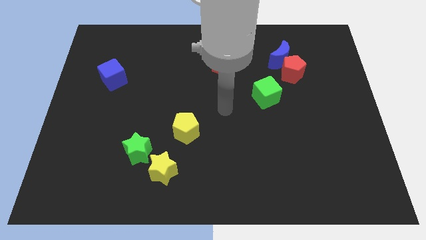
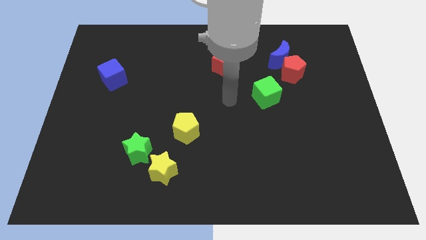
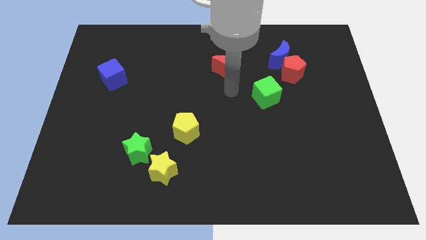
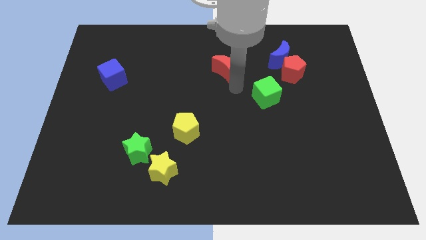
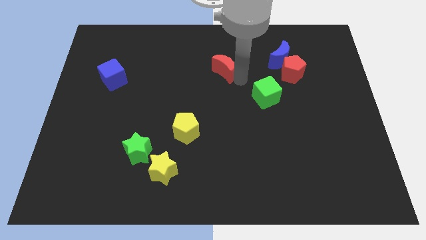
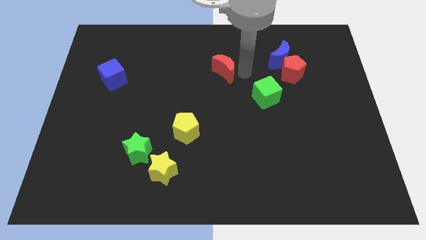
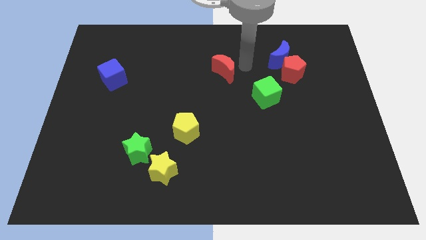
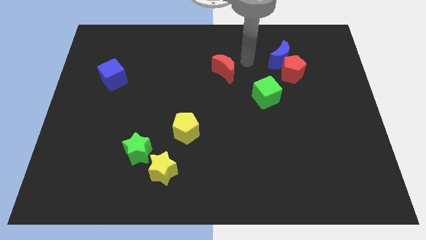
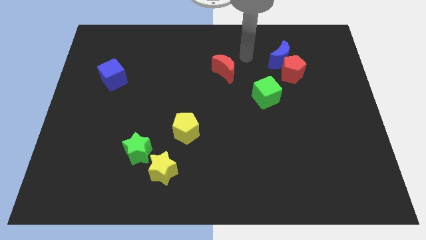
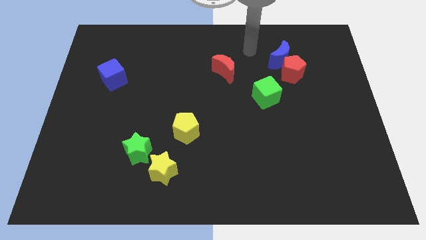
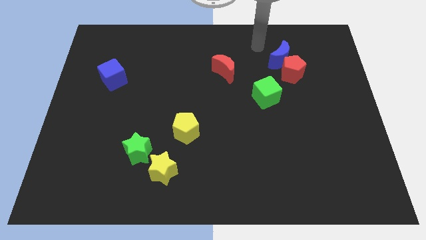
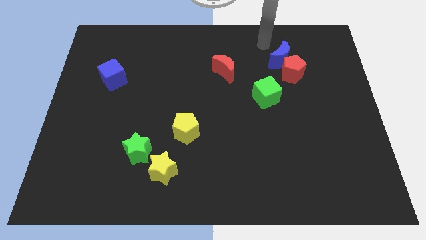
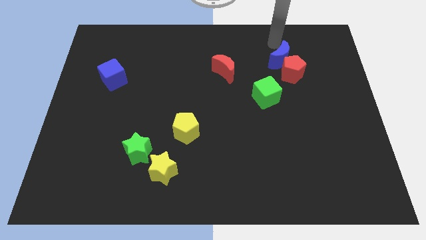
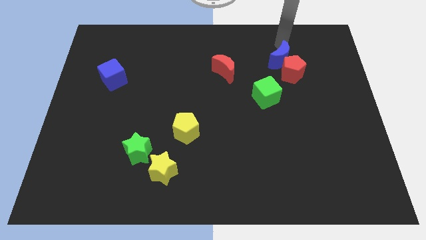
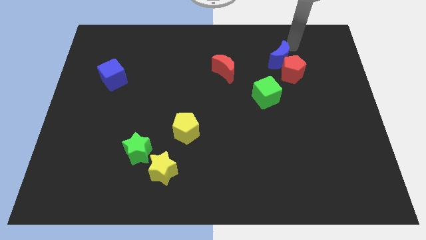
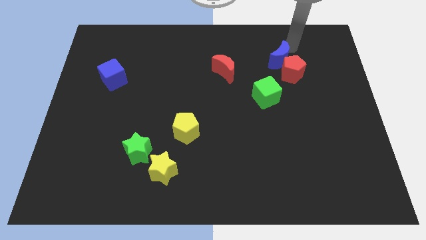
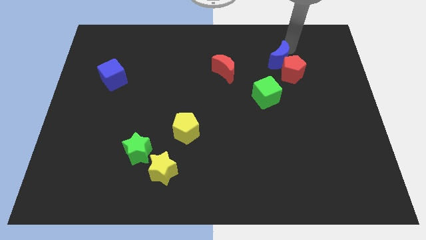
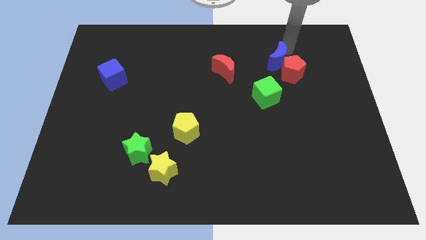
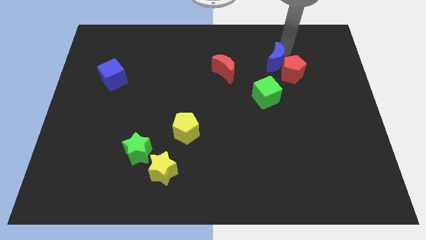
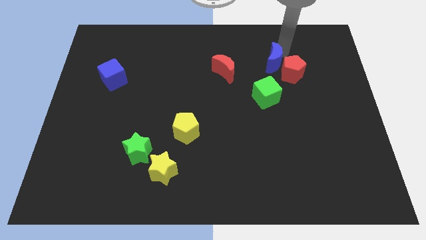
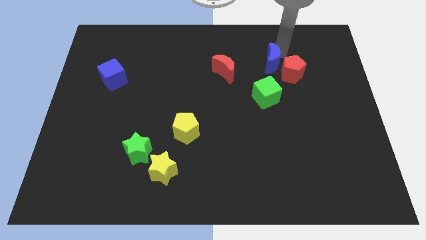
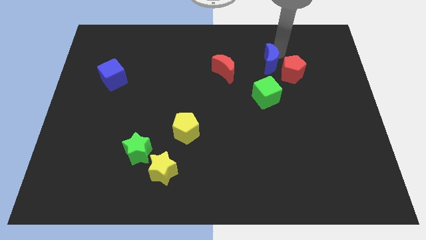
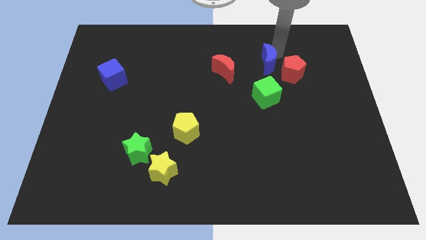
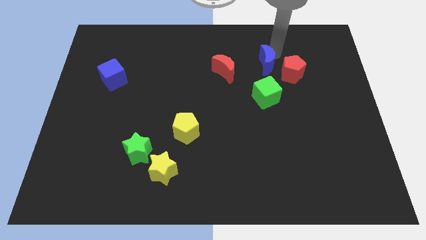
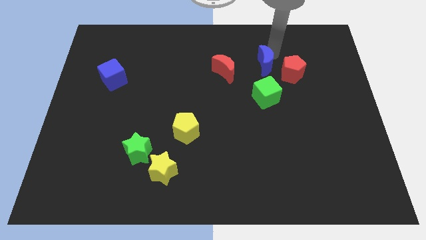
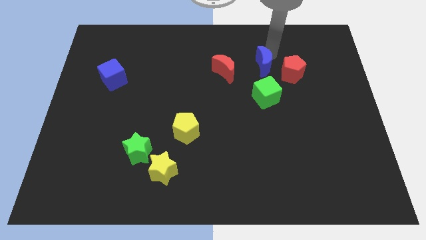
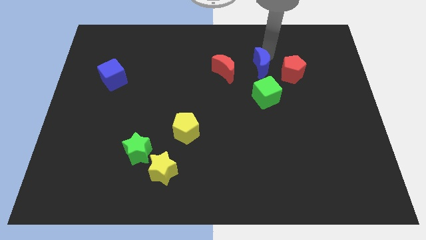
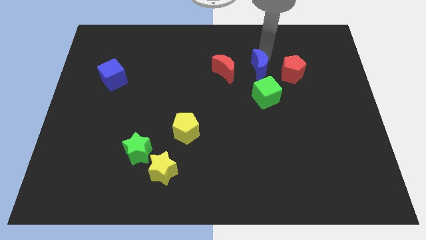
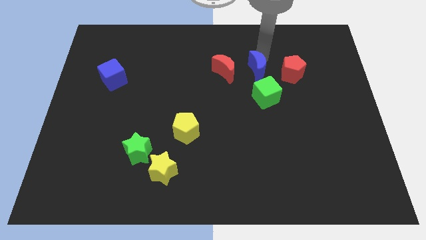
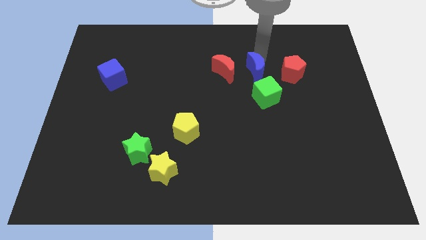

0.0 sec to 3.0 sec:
slightly move the blue moon diagonally down and left

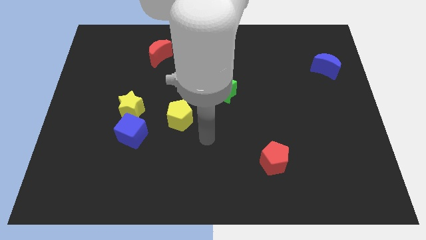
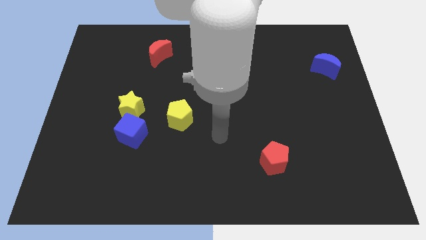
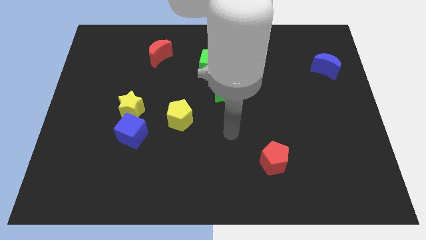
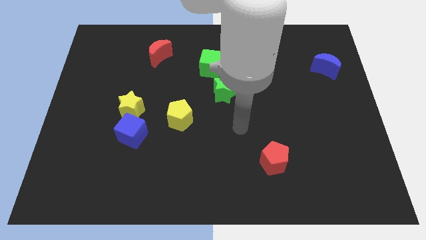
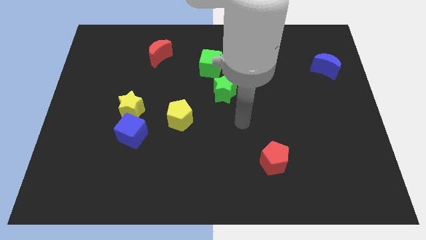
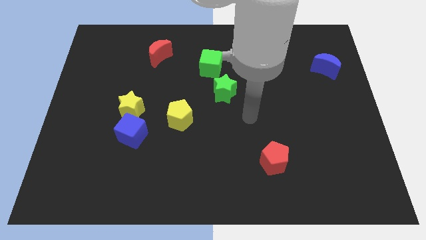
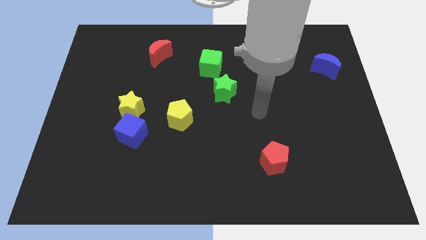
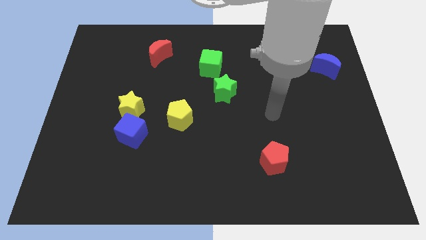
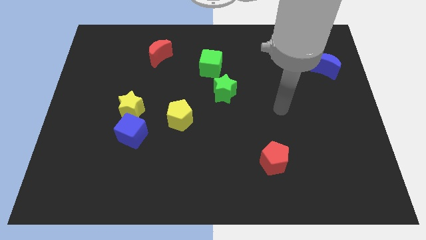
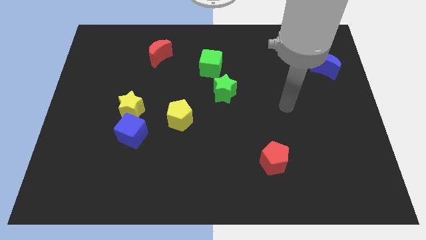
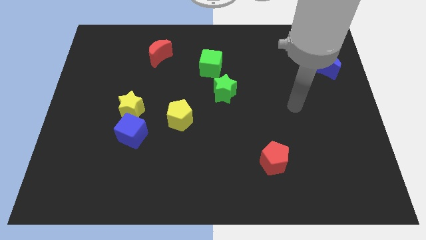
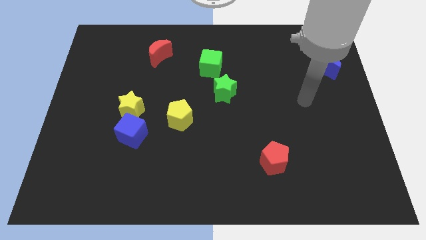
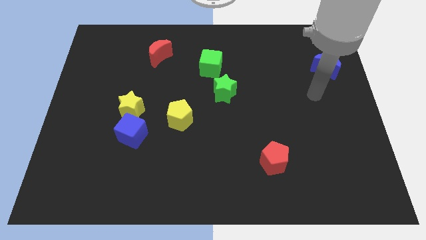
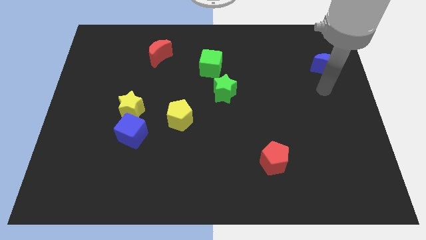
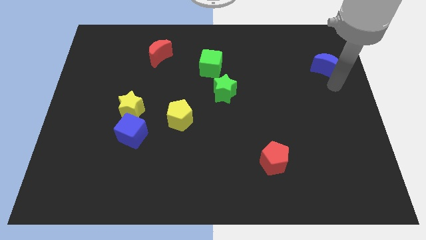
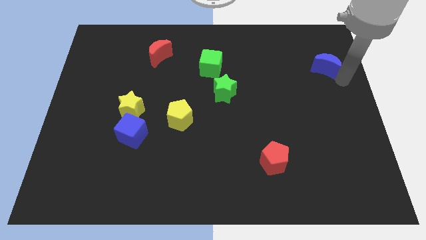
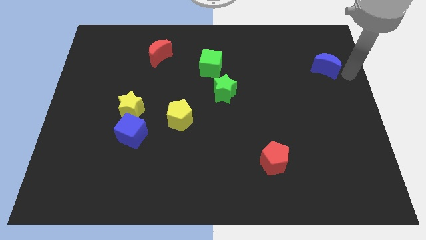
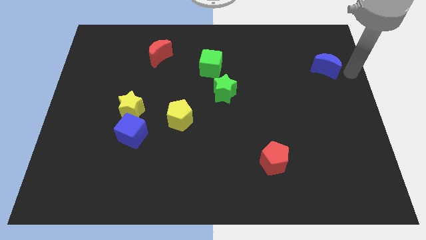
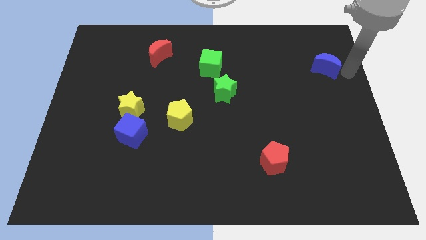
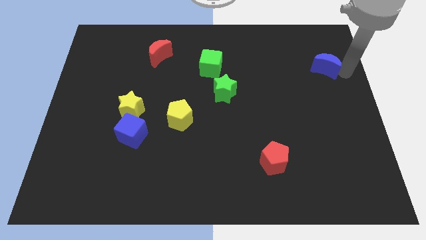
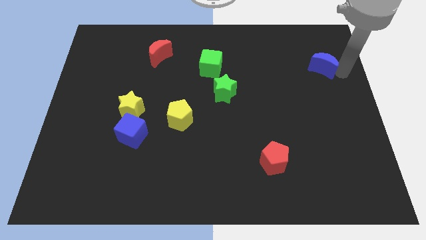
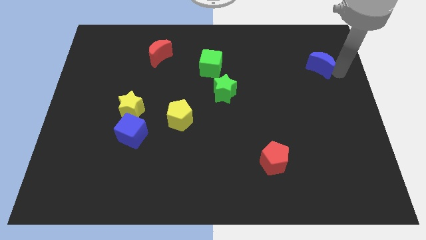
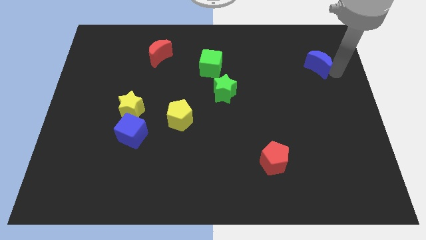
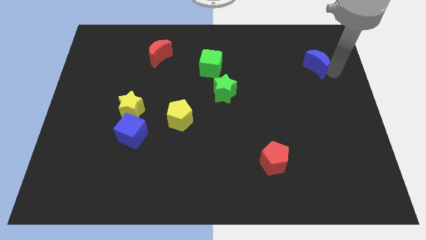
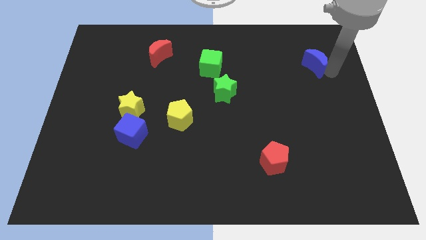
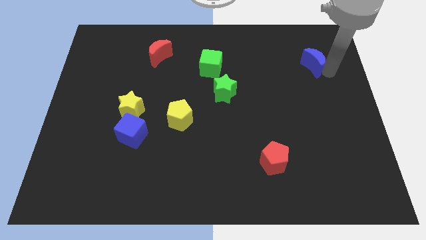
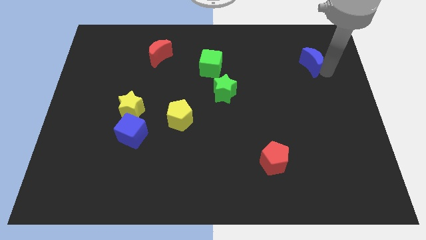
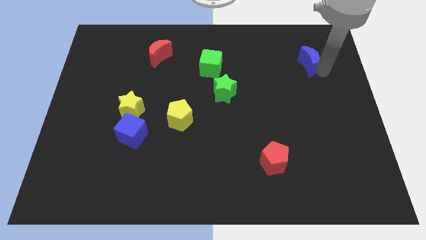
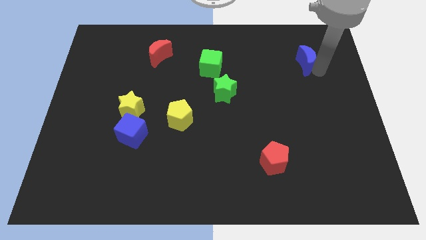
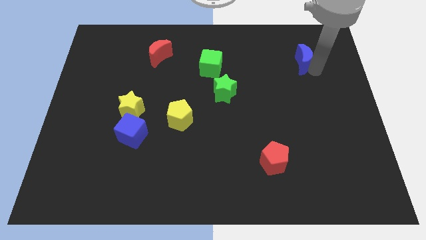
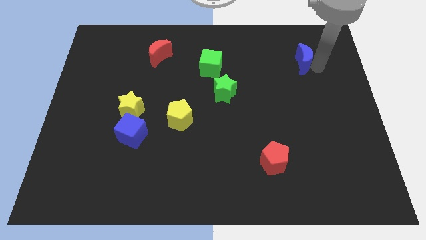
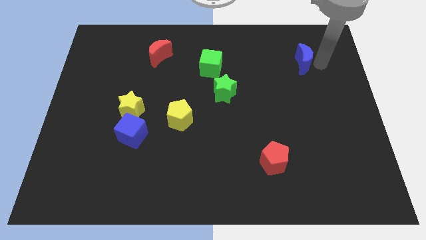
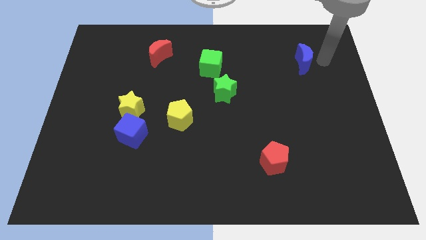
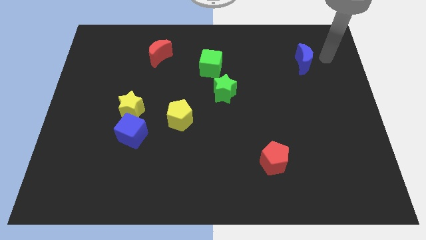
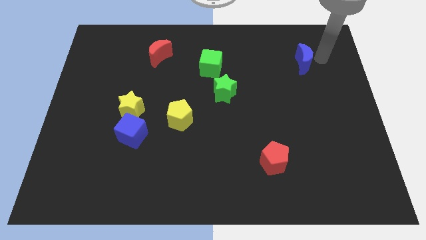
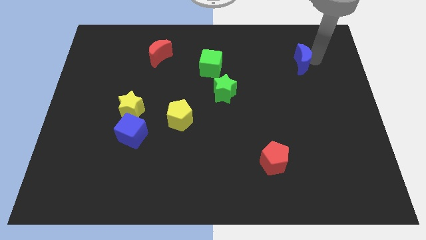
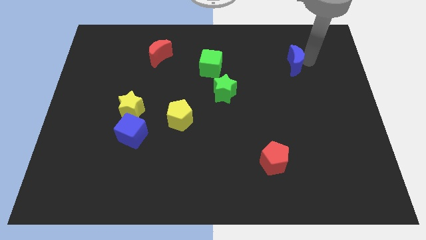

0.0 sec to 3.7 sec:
push the blue moon to the left a little bit

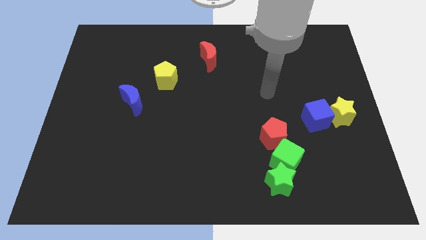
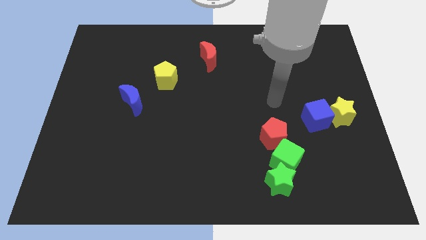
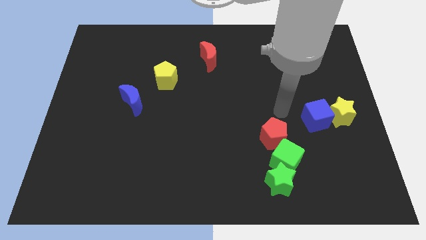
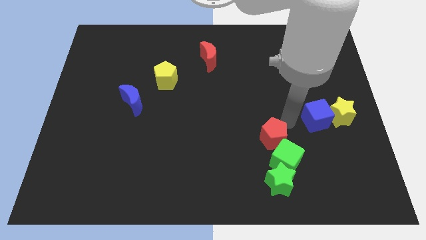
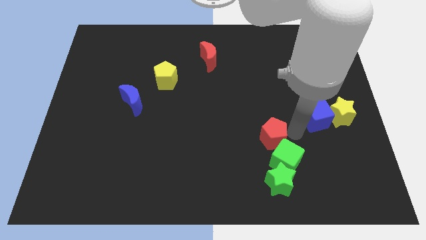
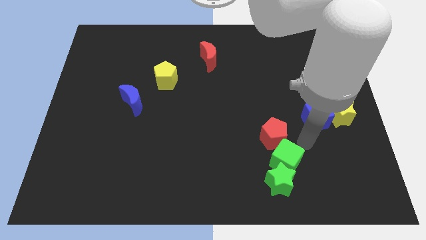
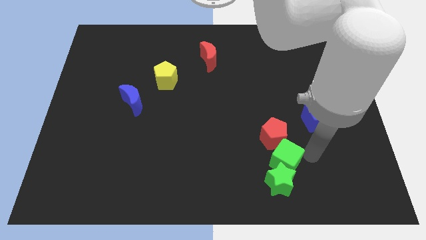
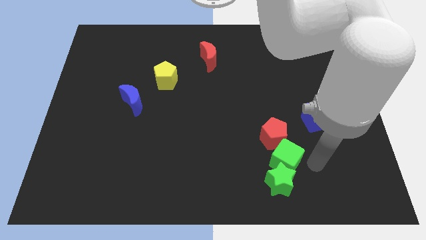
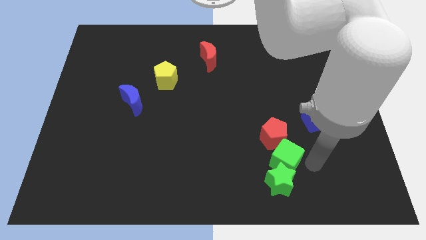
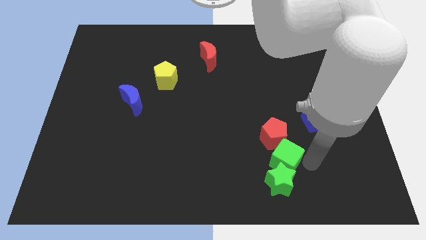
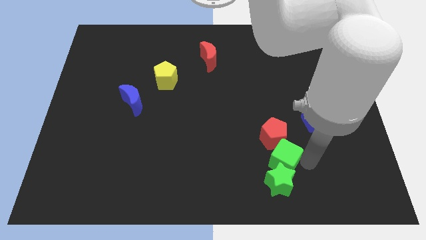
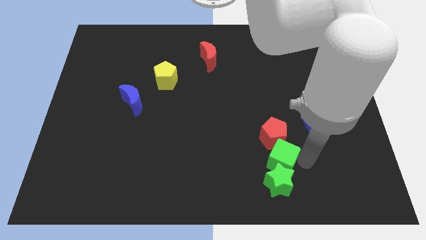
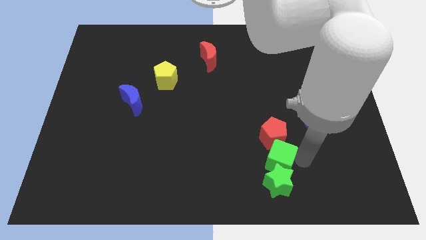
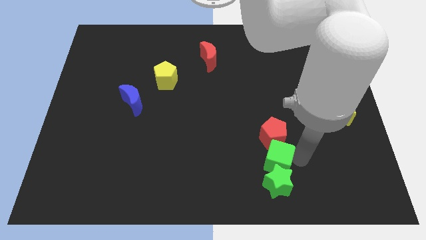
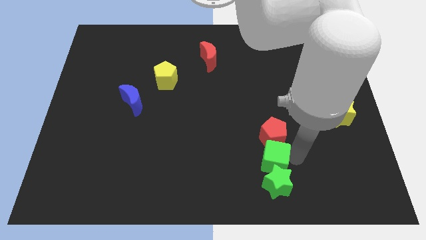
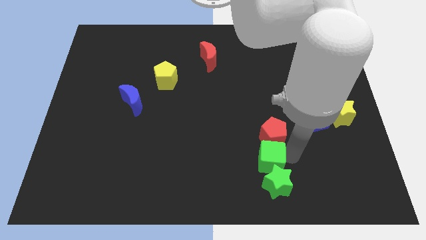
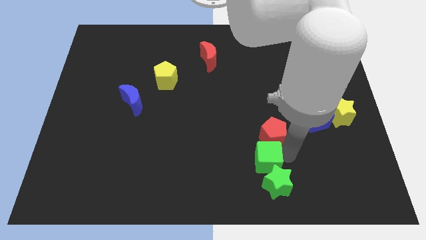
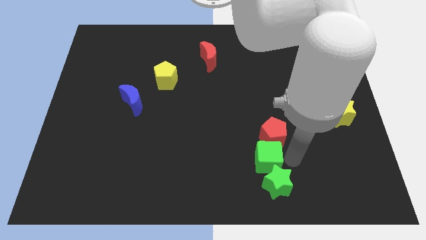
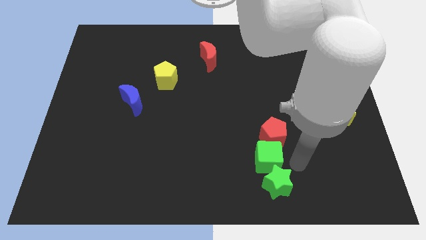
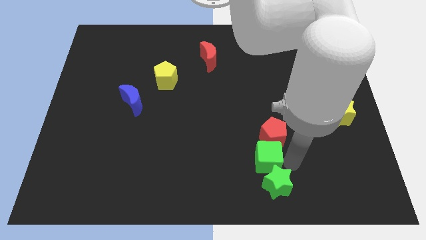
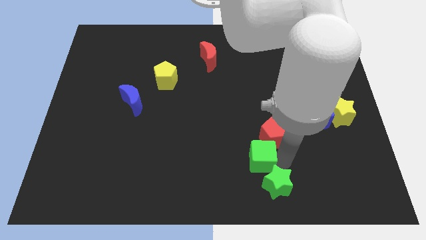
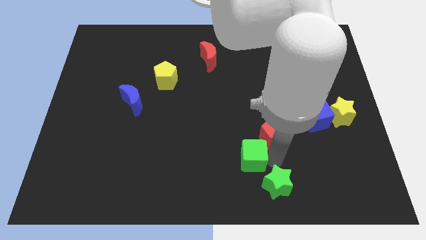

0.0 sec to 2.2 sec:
slightly slide the green cube left
